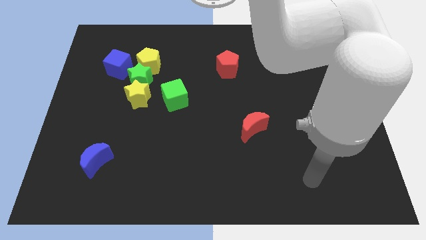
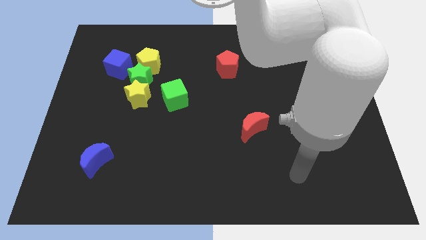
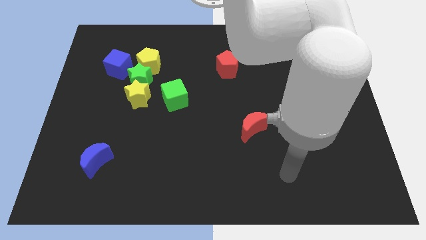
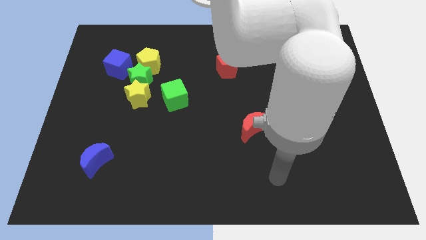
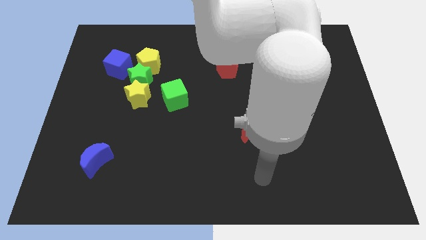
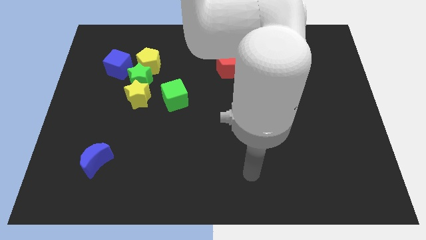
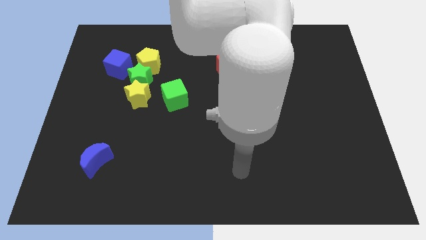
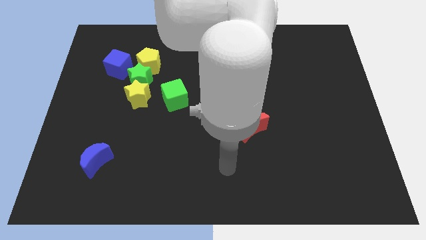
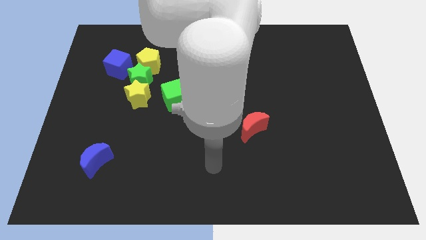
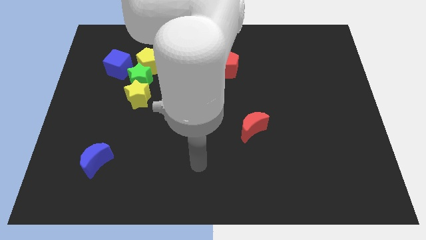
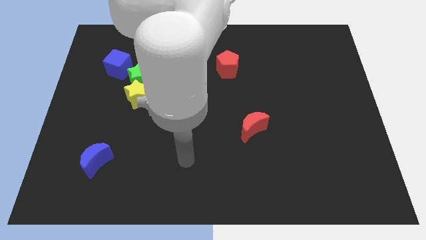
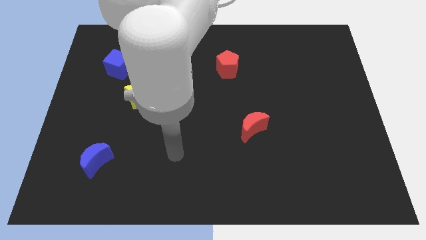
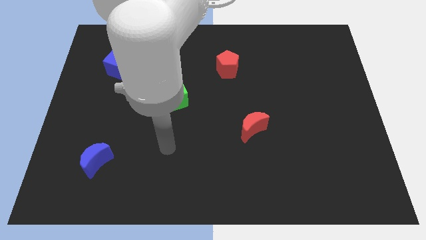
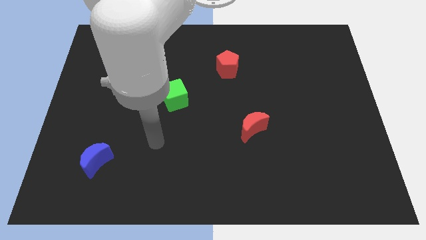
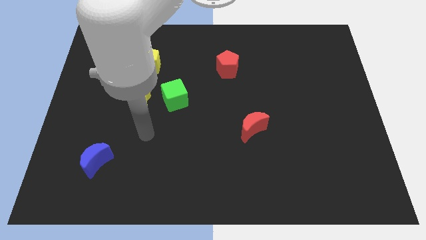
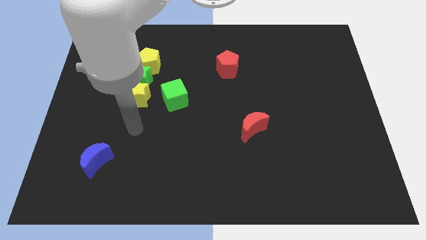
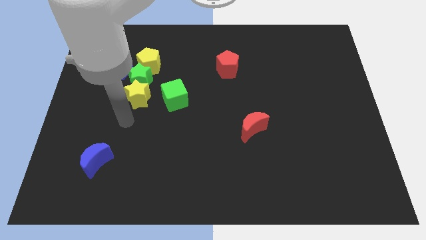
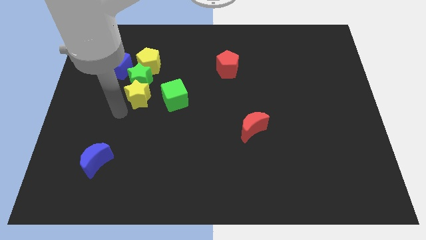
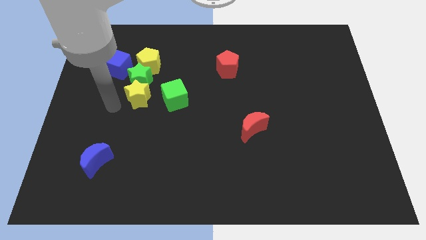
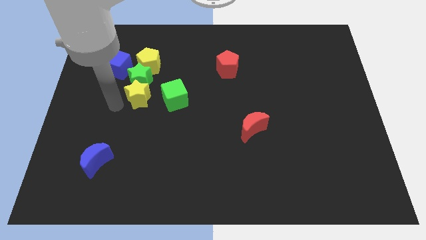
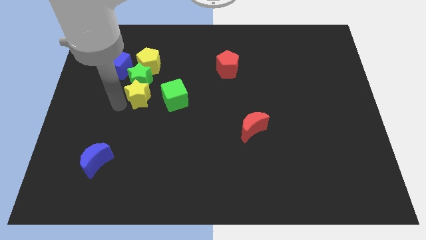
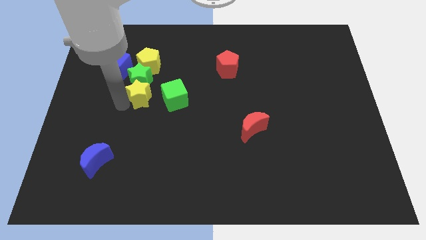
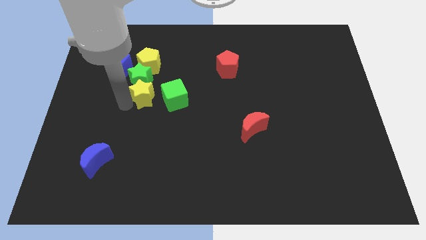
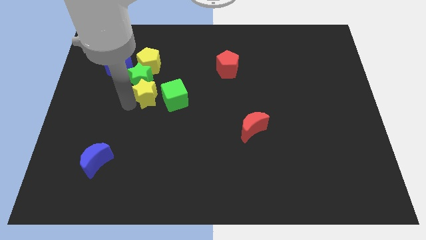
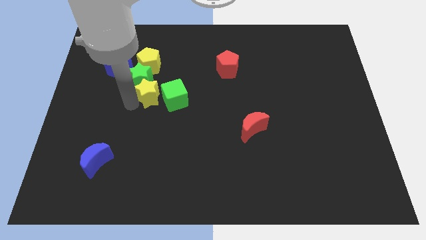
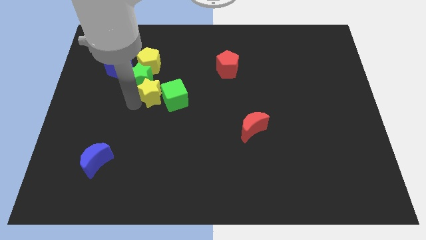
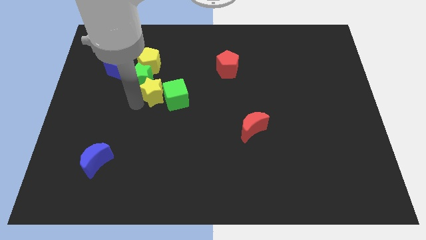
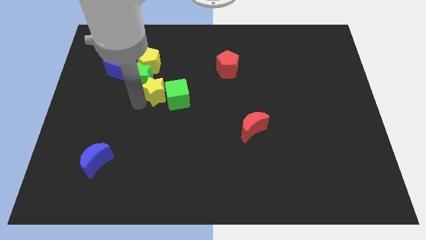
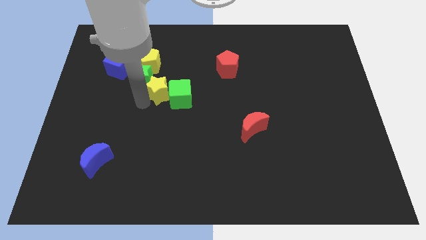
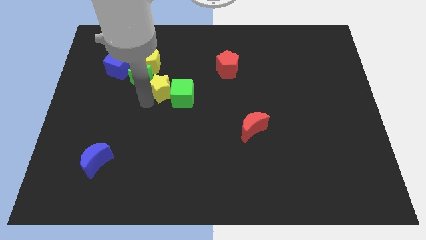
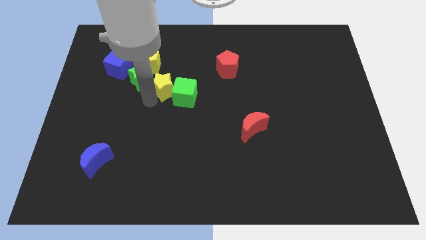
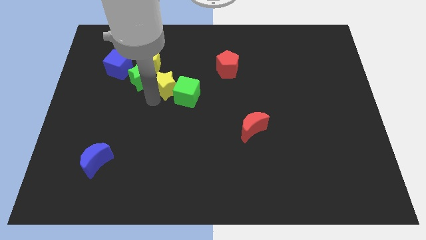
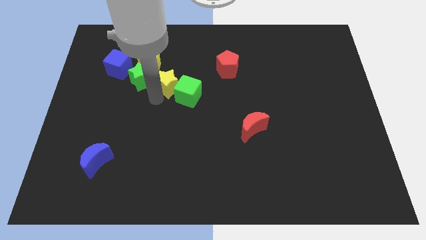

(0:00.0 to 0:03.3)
move the yellow star a little diagonally upwards and to the right

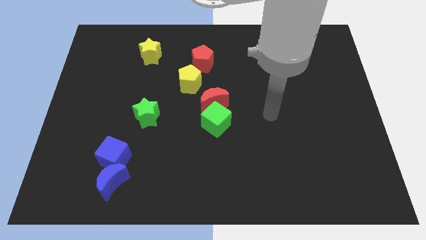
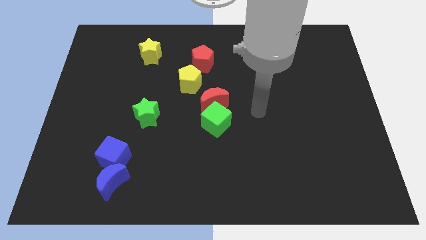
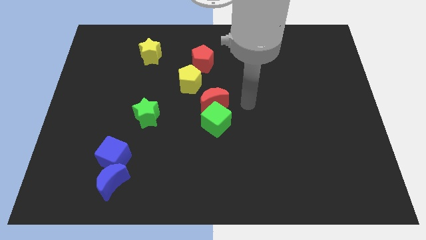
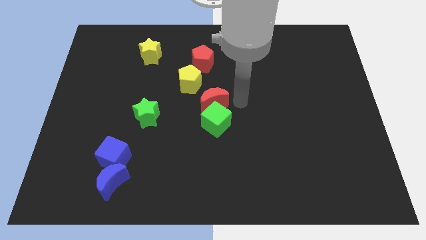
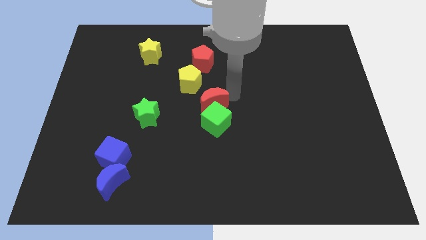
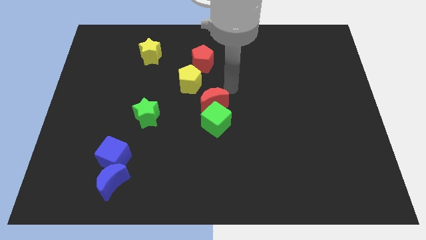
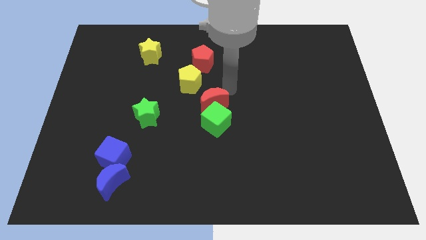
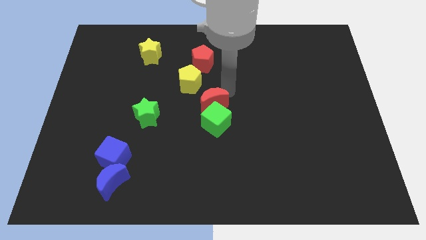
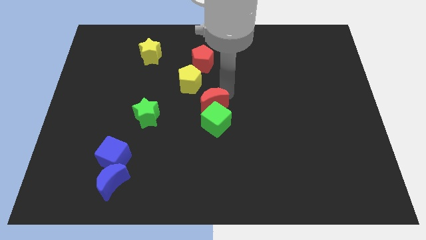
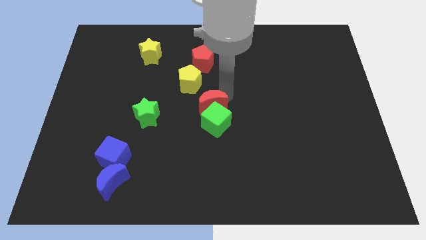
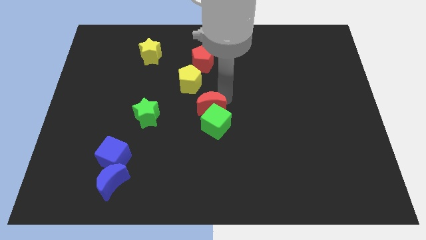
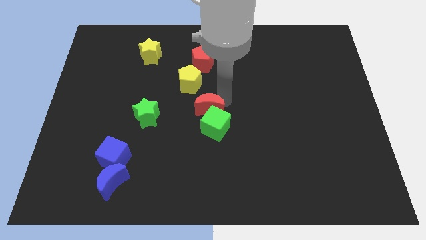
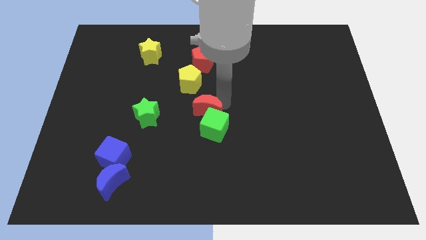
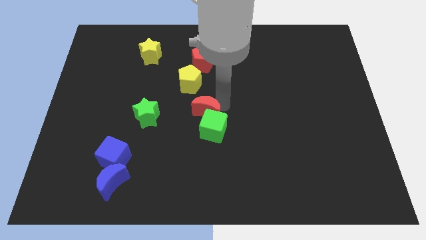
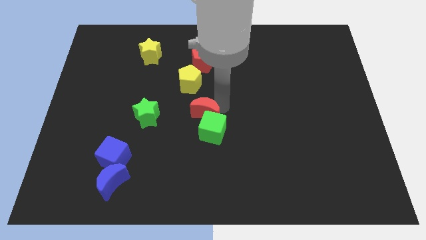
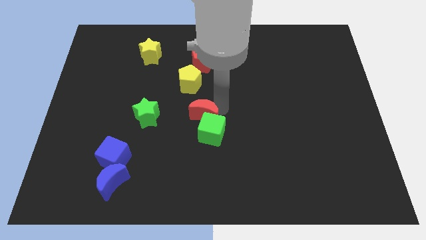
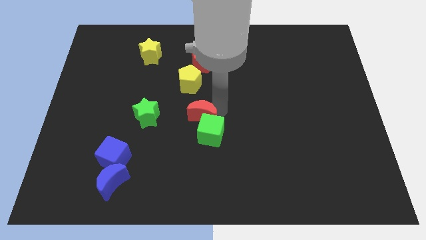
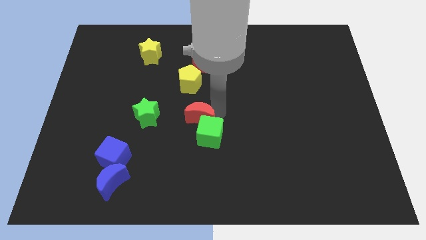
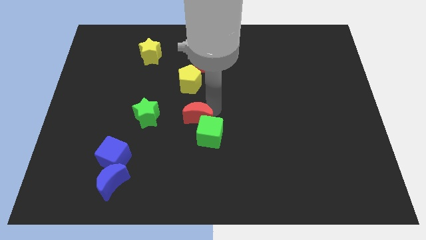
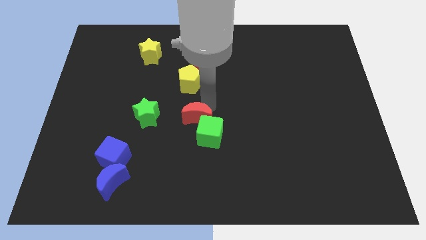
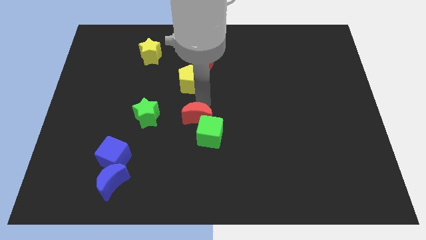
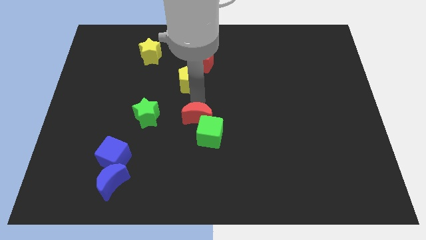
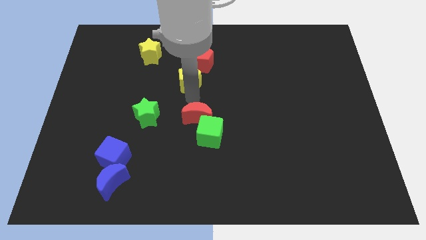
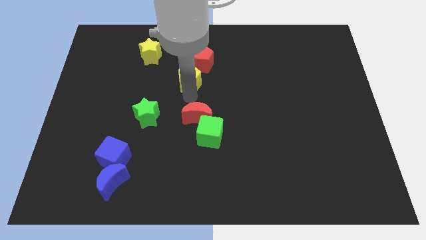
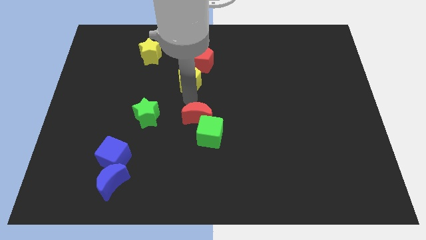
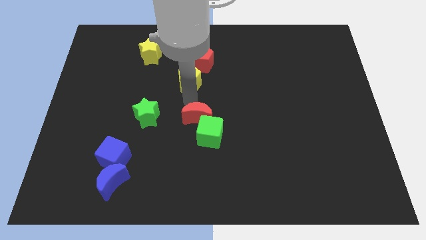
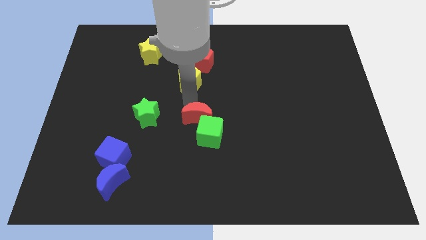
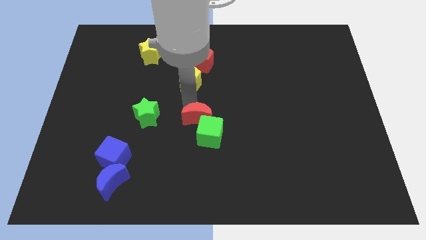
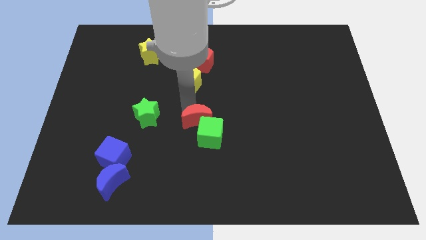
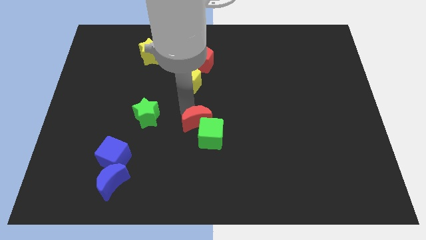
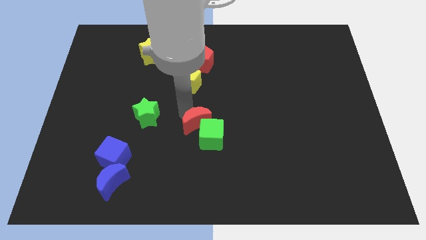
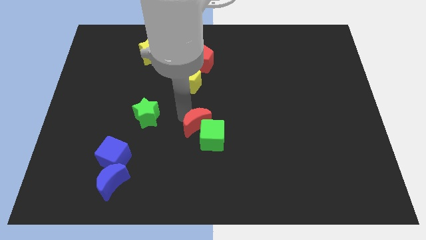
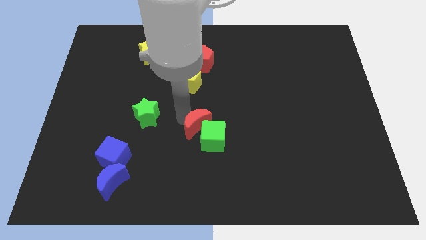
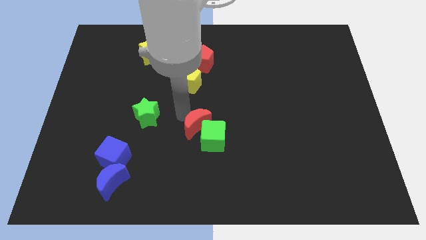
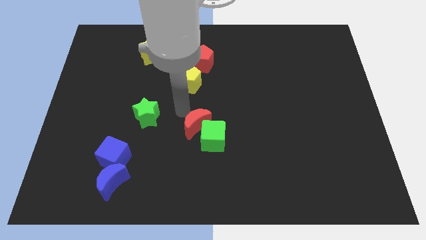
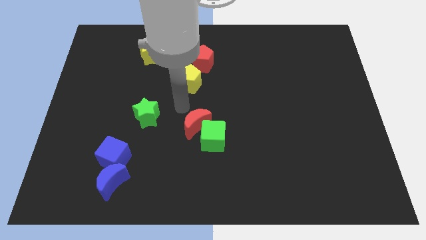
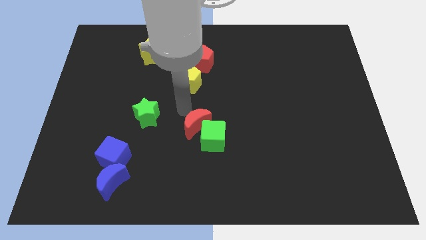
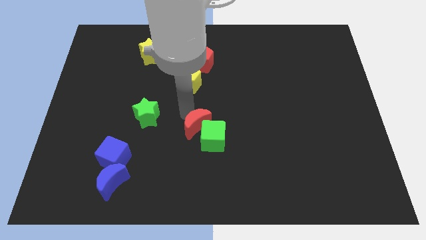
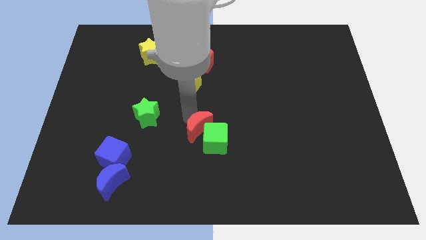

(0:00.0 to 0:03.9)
move the red moon downwards somewhat

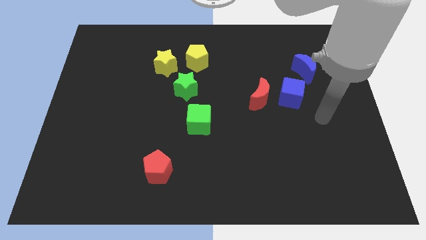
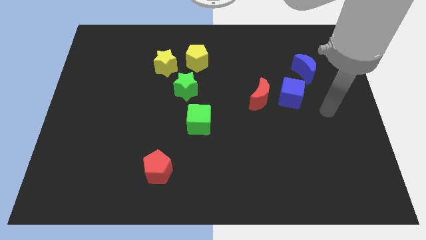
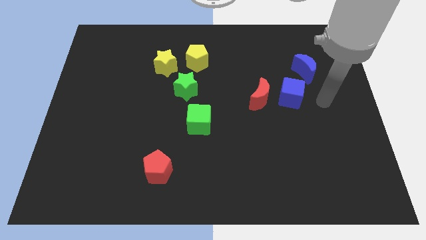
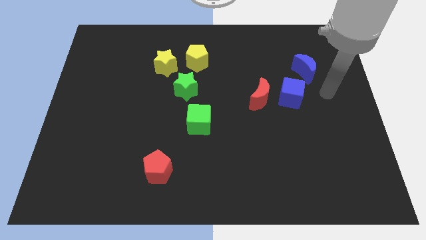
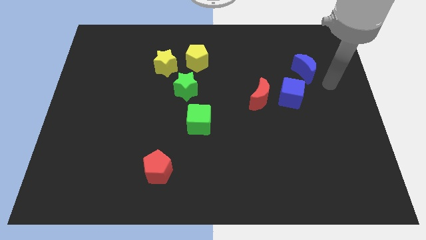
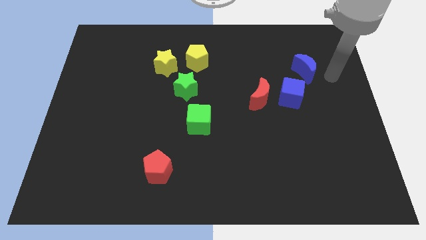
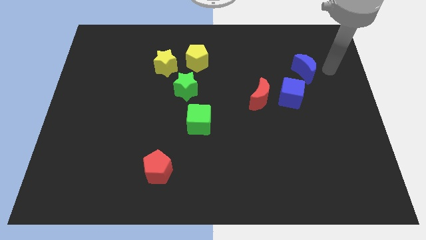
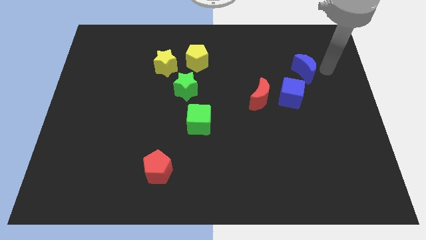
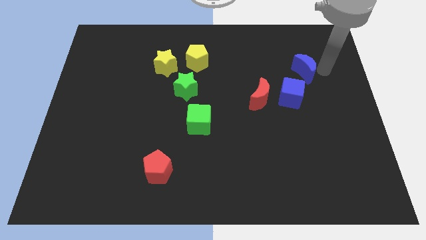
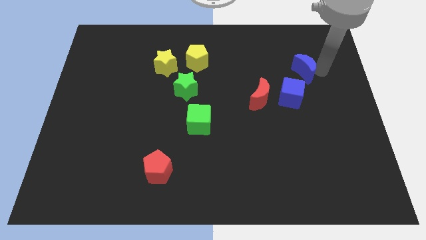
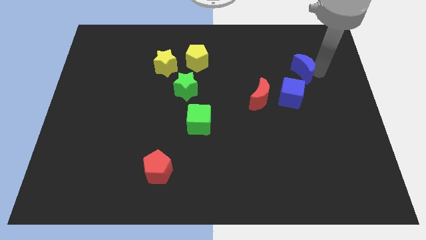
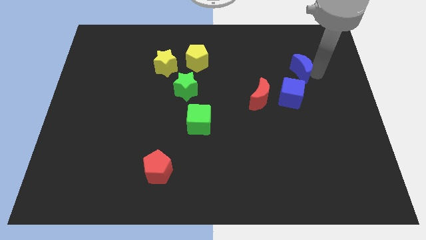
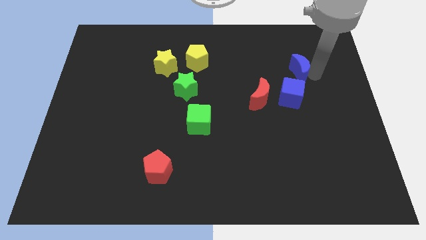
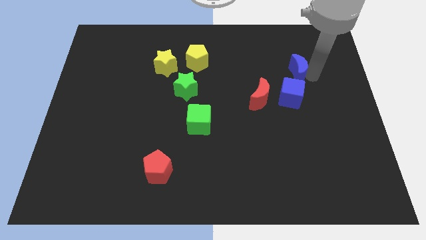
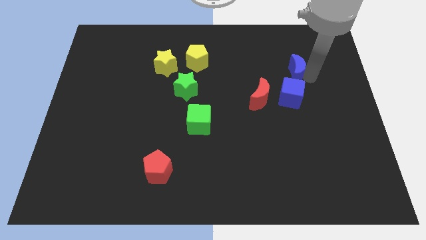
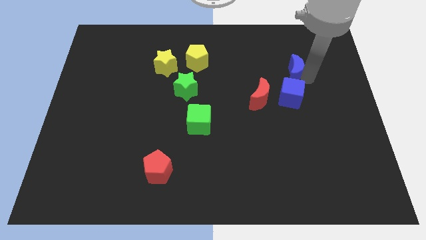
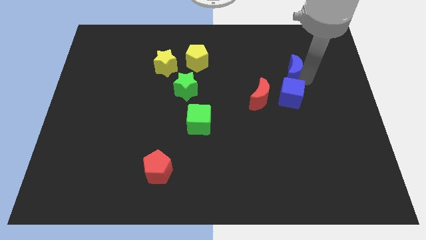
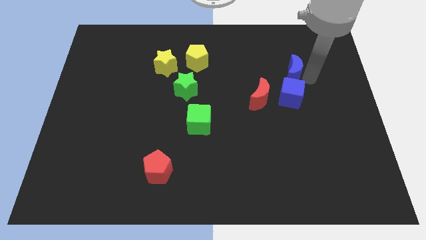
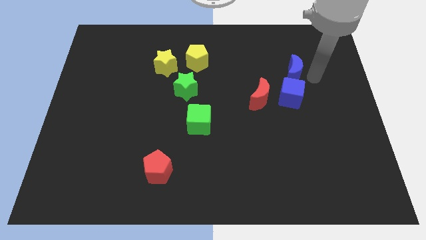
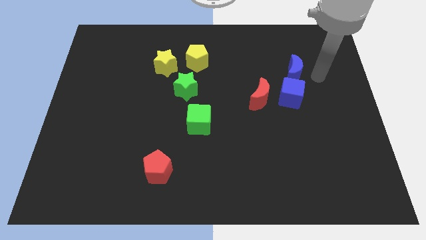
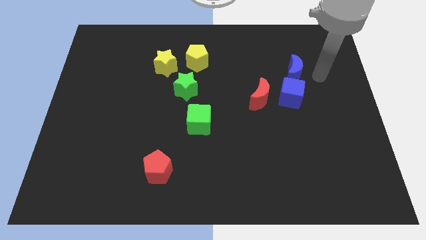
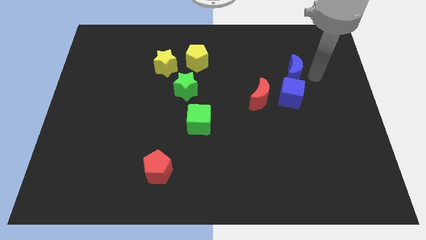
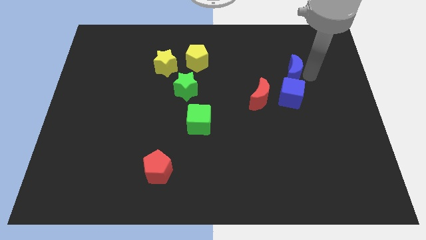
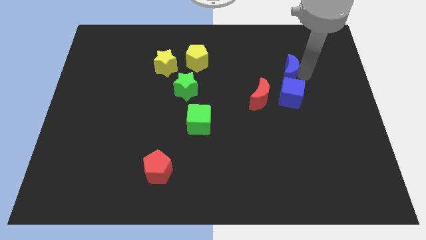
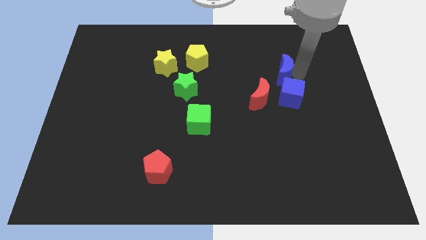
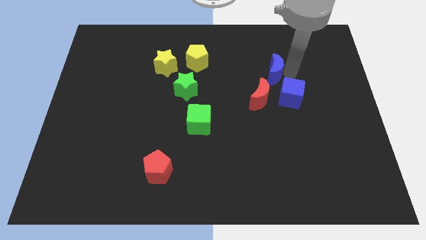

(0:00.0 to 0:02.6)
slide the blue moon to the left a little
